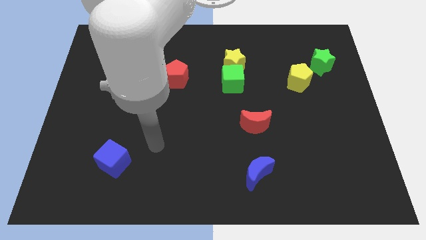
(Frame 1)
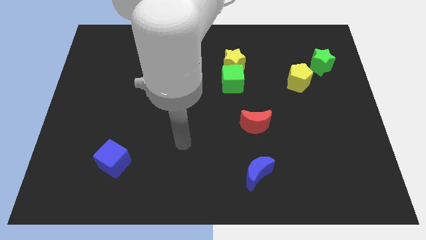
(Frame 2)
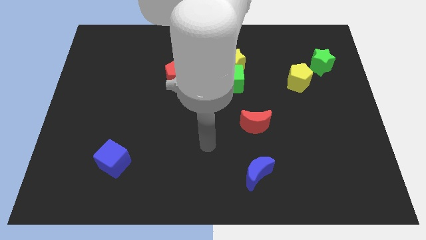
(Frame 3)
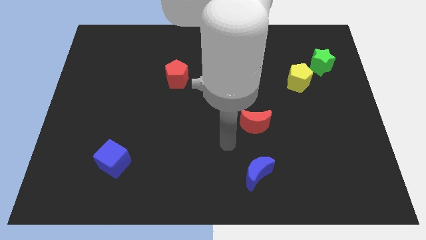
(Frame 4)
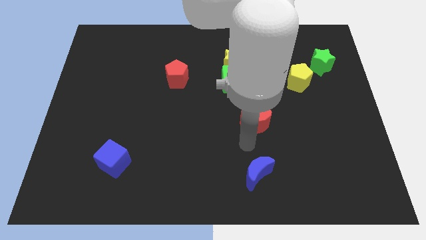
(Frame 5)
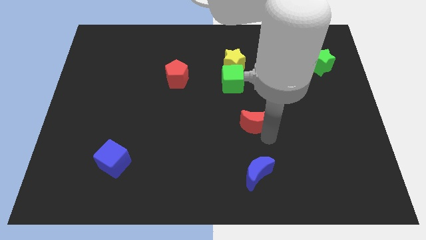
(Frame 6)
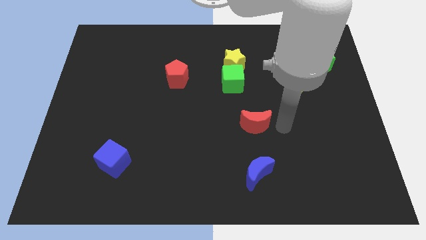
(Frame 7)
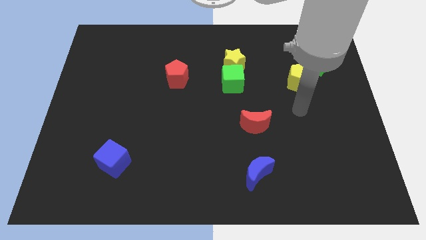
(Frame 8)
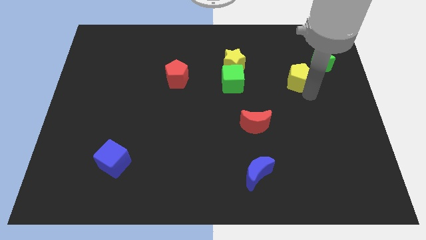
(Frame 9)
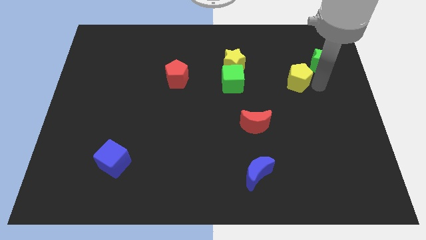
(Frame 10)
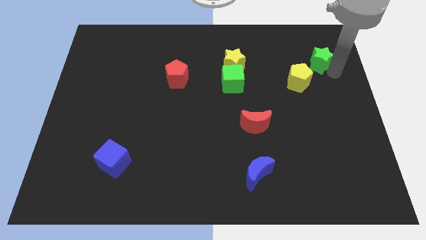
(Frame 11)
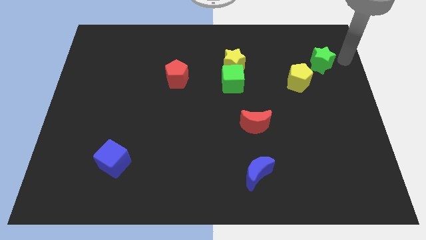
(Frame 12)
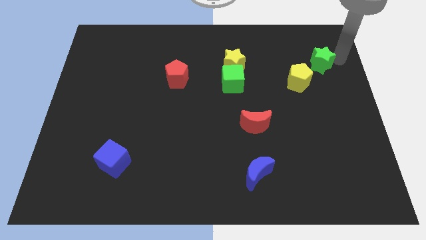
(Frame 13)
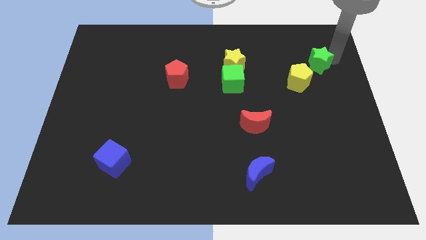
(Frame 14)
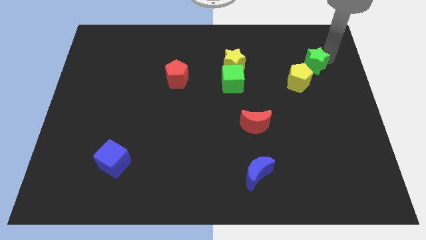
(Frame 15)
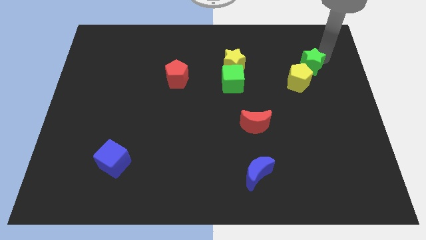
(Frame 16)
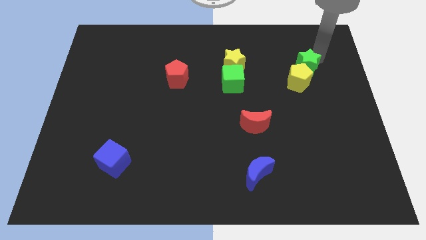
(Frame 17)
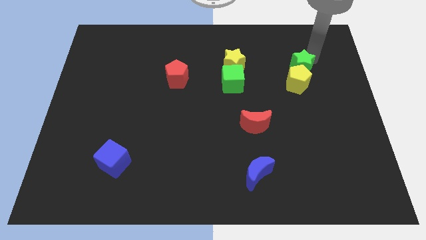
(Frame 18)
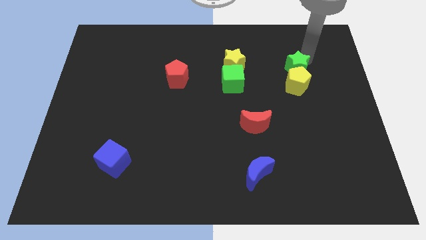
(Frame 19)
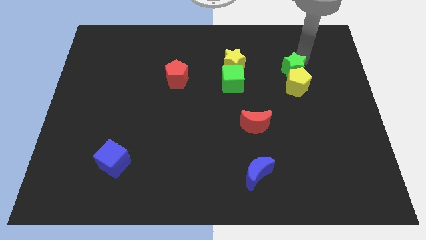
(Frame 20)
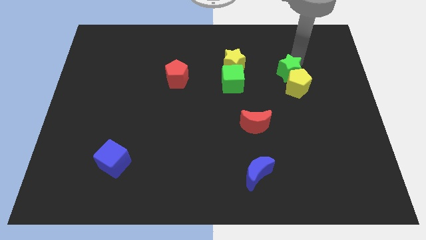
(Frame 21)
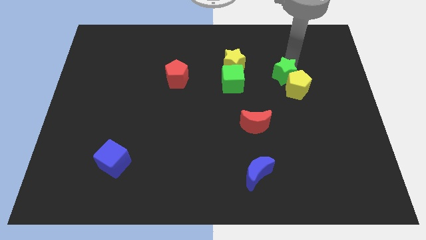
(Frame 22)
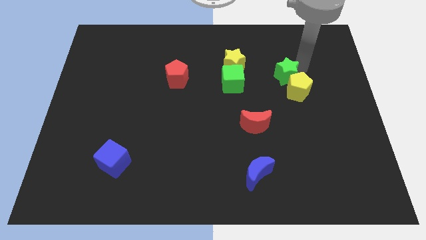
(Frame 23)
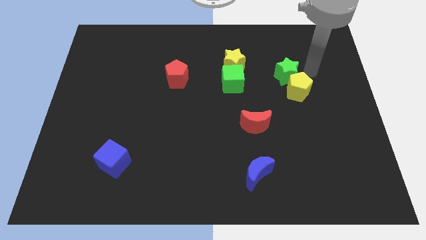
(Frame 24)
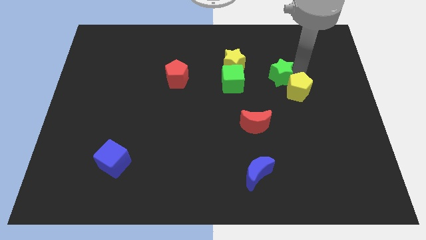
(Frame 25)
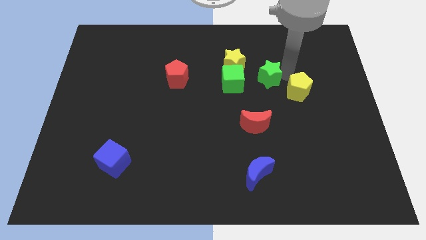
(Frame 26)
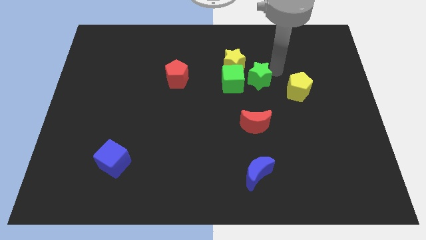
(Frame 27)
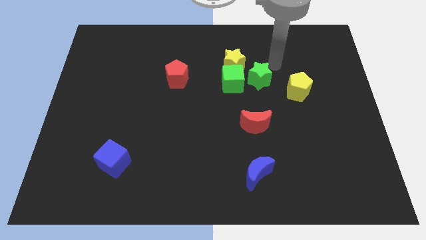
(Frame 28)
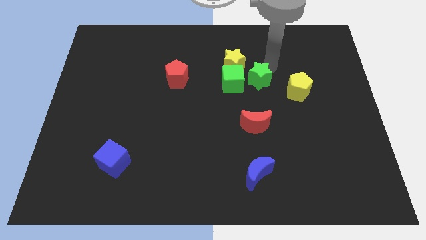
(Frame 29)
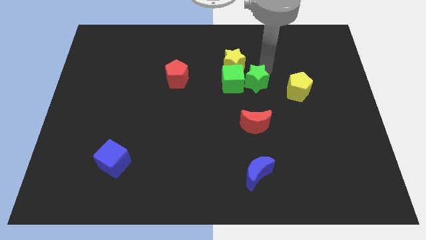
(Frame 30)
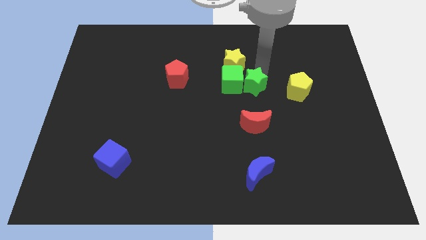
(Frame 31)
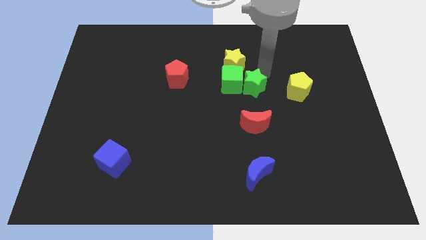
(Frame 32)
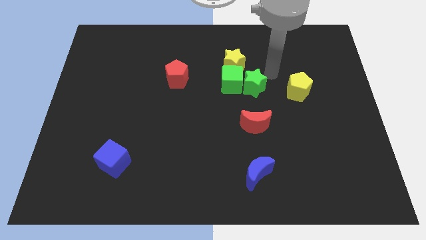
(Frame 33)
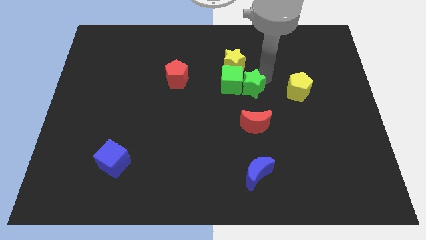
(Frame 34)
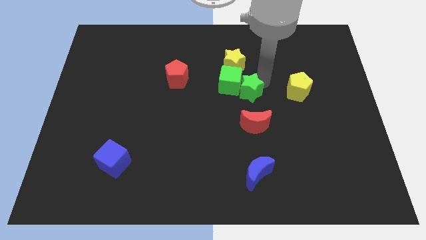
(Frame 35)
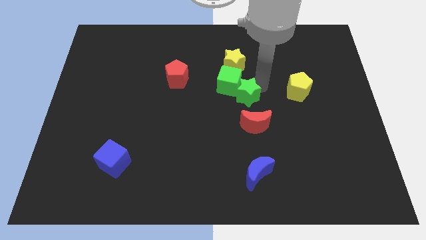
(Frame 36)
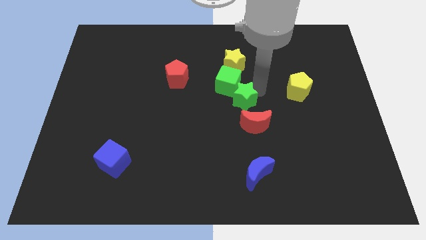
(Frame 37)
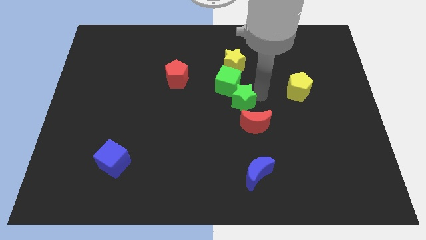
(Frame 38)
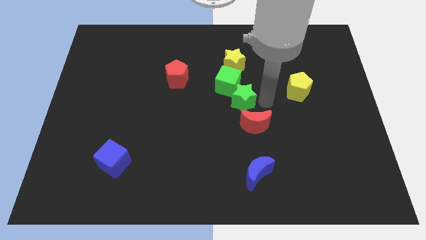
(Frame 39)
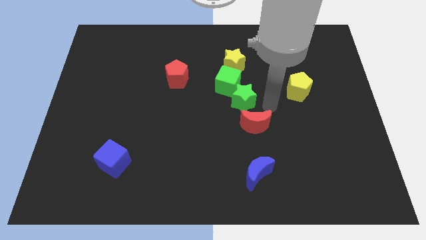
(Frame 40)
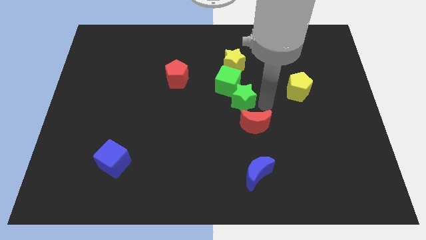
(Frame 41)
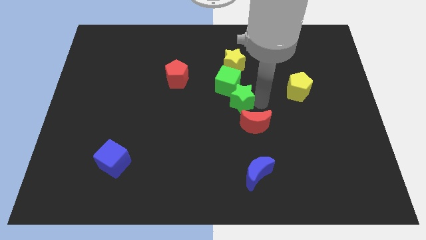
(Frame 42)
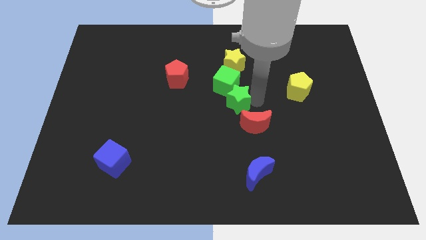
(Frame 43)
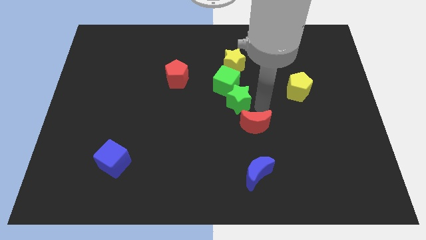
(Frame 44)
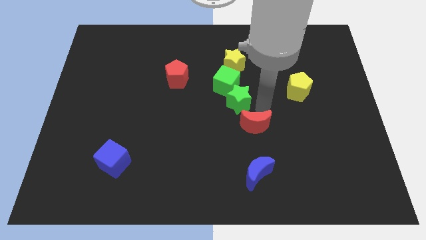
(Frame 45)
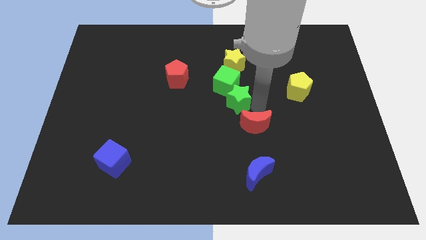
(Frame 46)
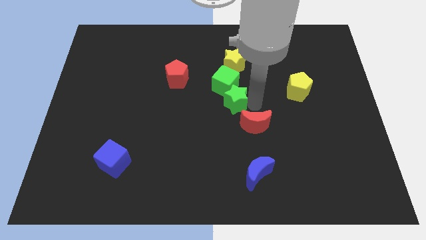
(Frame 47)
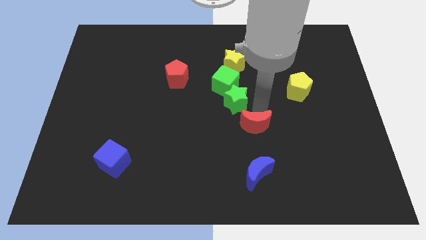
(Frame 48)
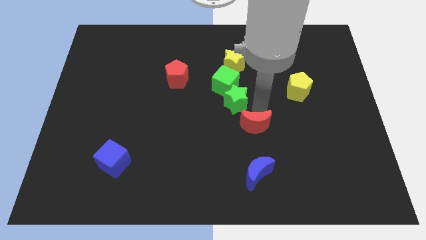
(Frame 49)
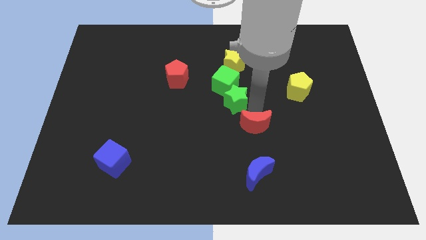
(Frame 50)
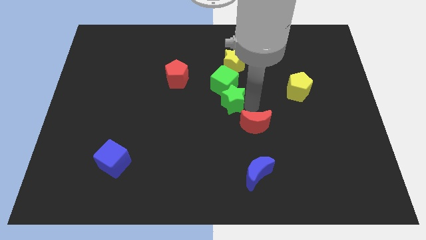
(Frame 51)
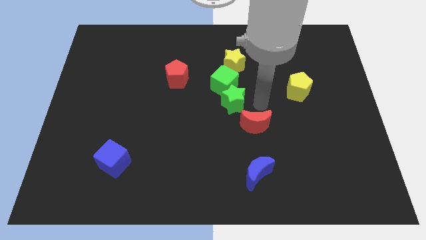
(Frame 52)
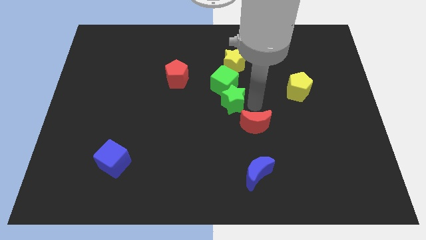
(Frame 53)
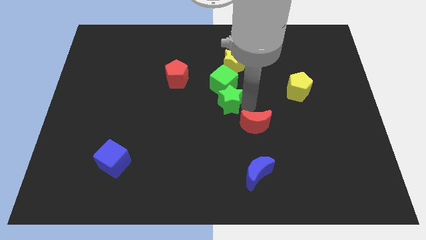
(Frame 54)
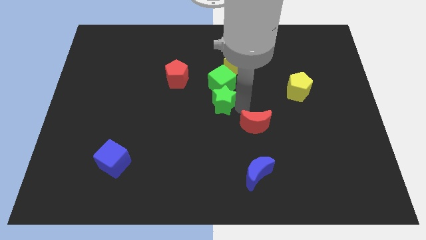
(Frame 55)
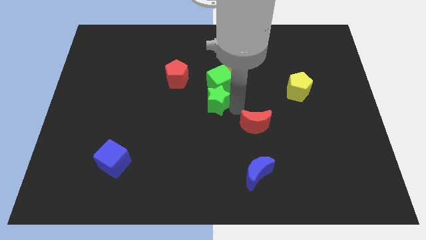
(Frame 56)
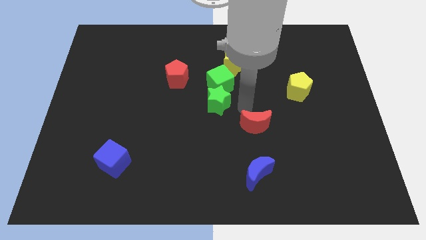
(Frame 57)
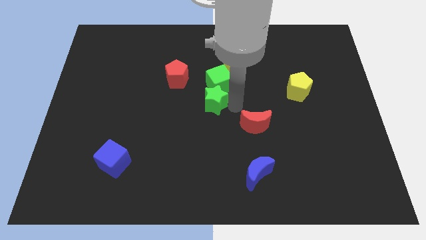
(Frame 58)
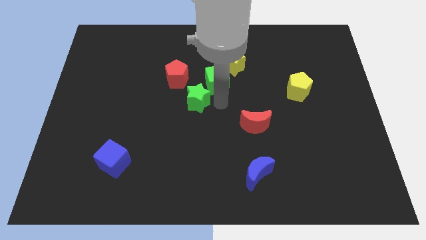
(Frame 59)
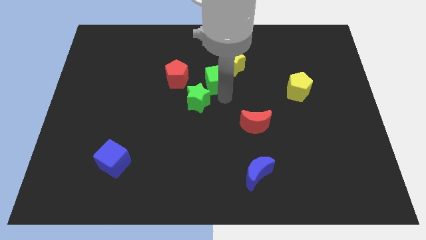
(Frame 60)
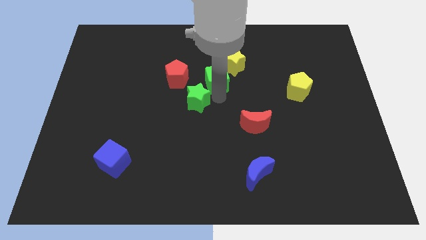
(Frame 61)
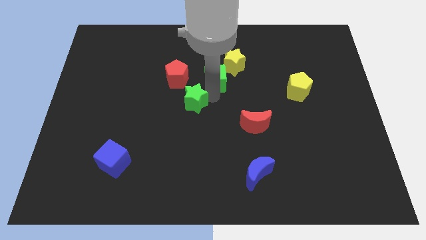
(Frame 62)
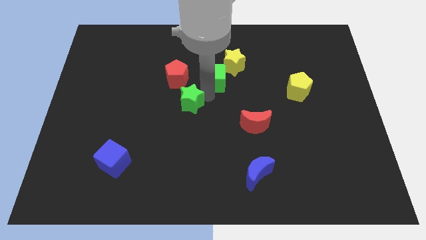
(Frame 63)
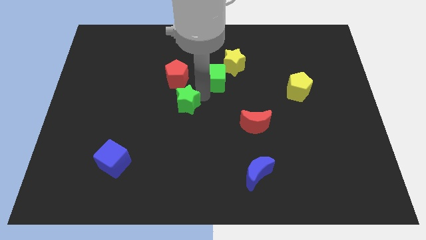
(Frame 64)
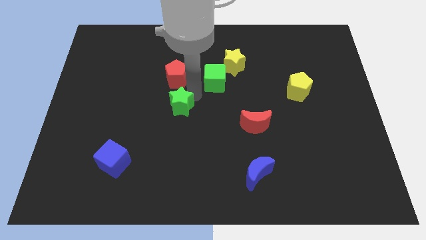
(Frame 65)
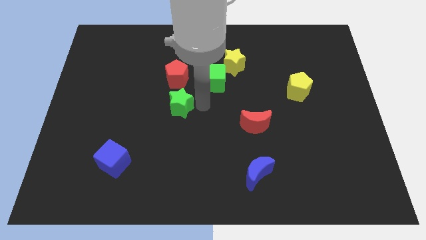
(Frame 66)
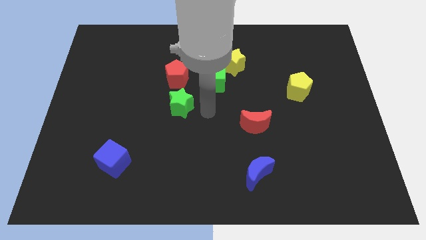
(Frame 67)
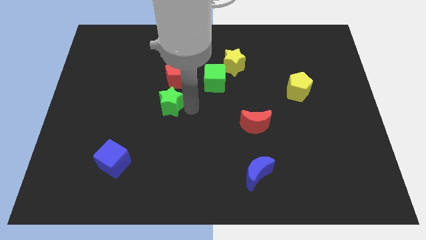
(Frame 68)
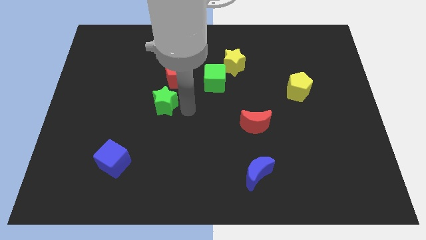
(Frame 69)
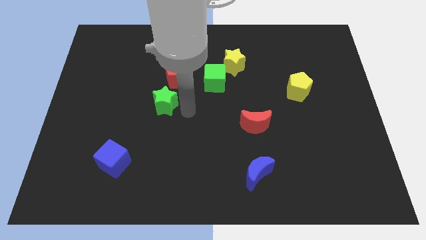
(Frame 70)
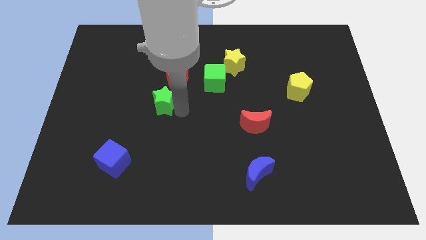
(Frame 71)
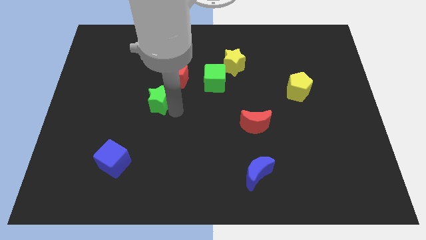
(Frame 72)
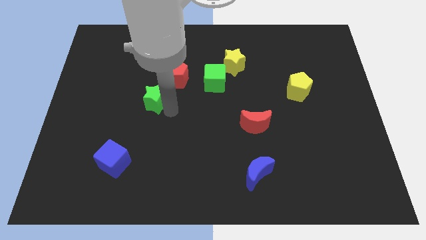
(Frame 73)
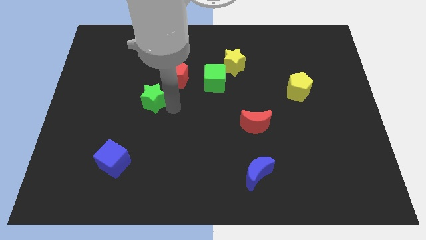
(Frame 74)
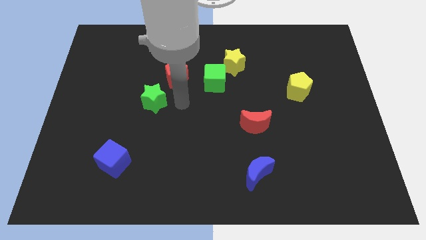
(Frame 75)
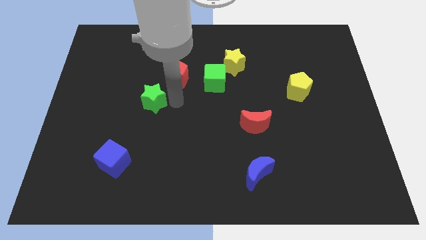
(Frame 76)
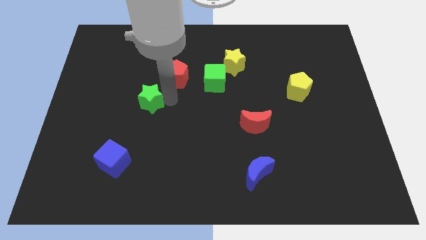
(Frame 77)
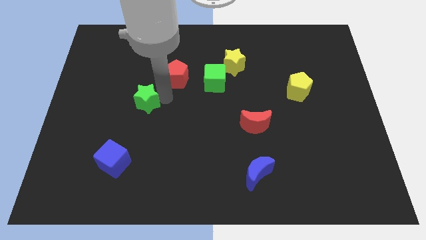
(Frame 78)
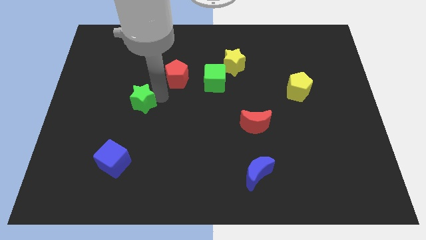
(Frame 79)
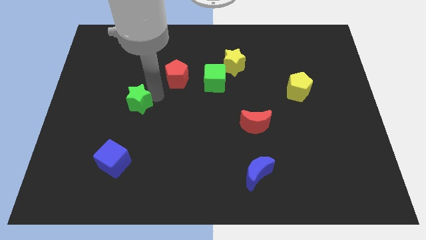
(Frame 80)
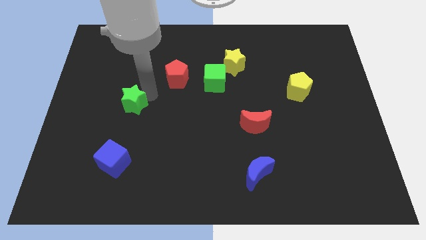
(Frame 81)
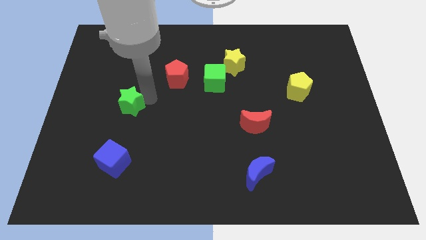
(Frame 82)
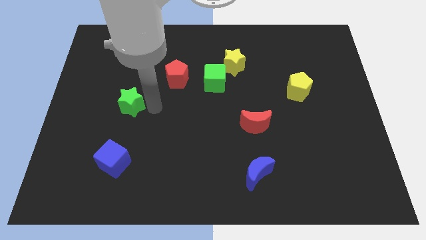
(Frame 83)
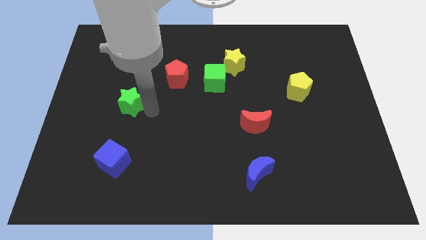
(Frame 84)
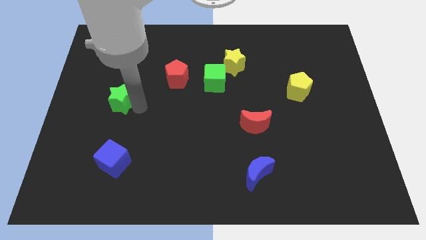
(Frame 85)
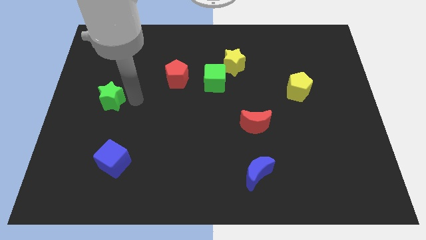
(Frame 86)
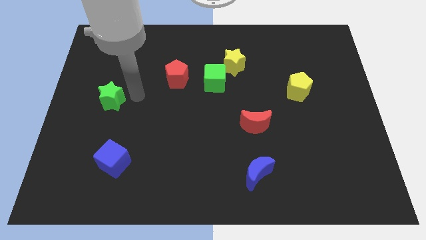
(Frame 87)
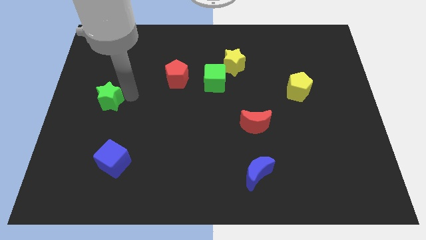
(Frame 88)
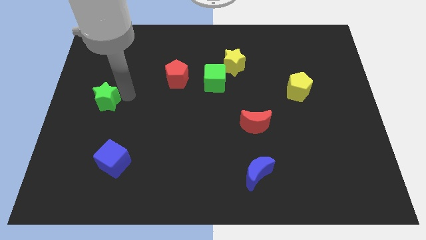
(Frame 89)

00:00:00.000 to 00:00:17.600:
slide the green star to the left side
